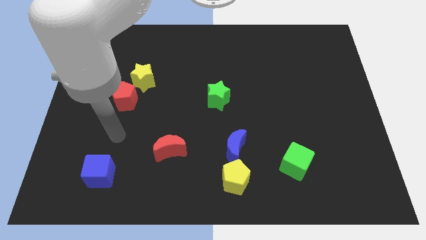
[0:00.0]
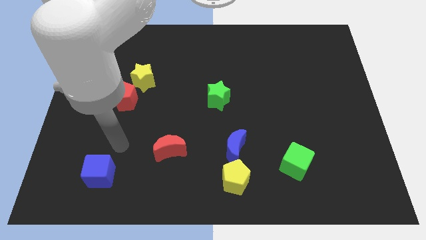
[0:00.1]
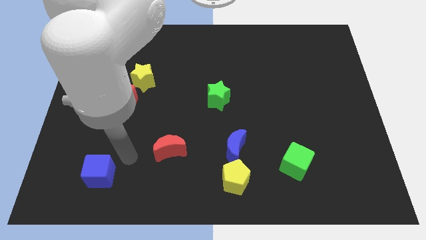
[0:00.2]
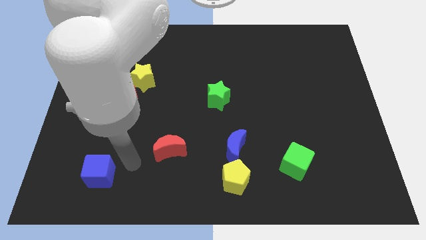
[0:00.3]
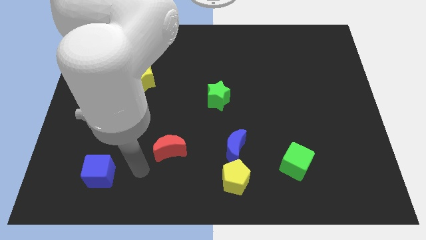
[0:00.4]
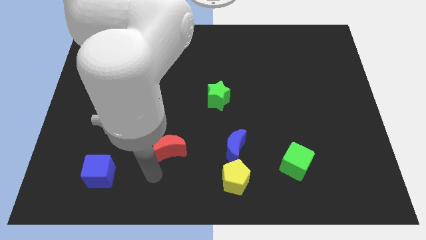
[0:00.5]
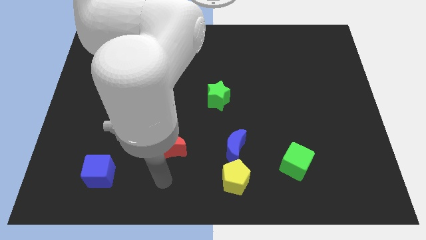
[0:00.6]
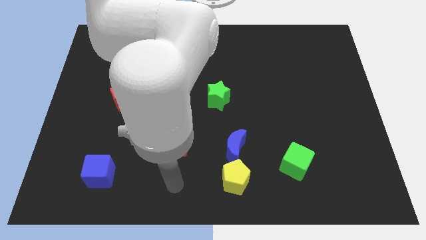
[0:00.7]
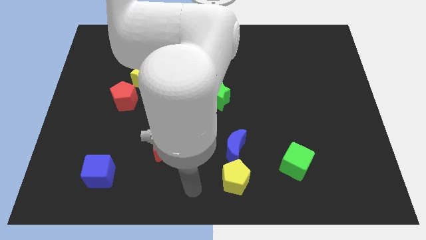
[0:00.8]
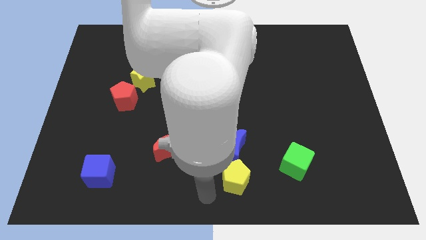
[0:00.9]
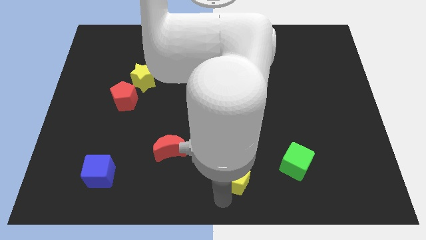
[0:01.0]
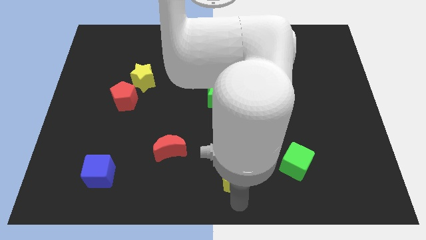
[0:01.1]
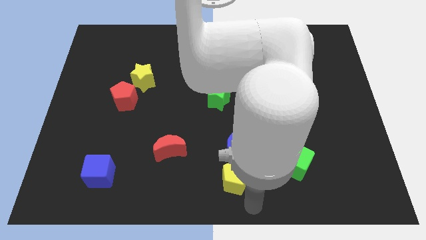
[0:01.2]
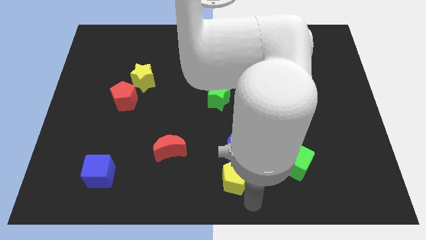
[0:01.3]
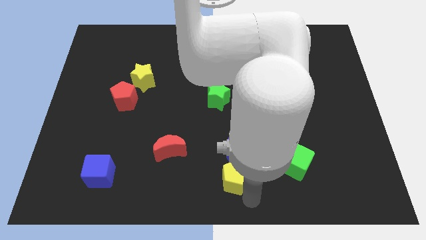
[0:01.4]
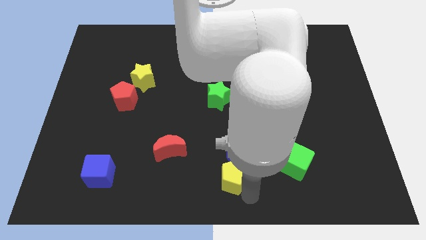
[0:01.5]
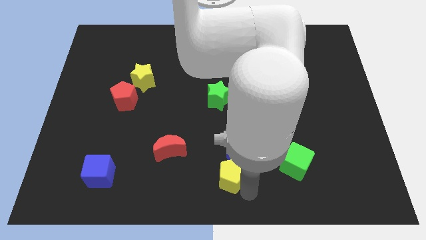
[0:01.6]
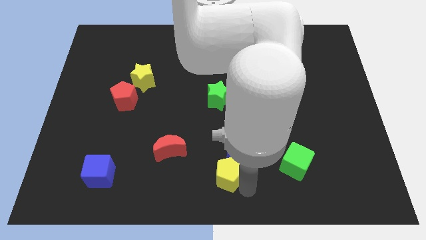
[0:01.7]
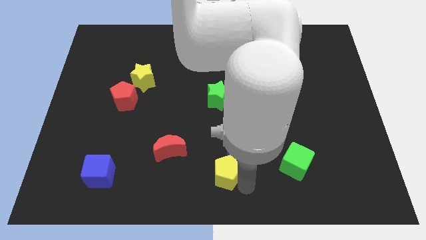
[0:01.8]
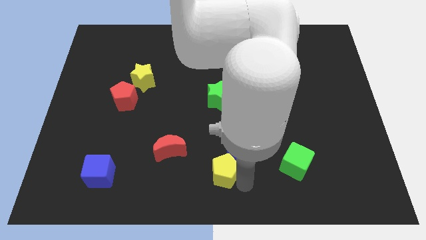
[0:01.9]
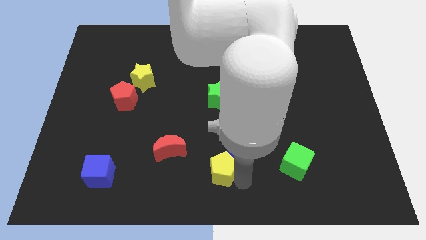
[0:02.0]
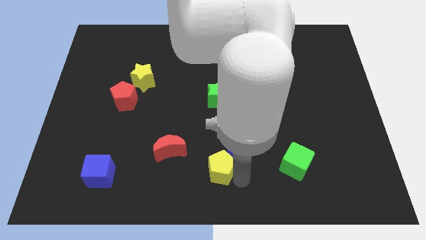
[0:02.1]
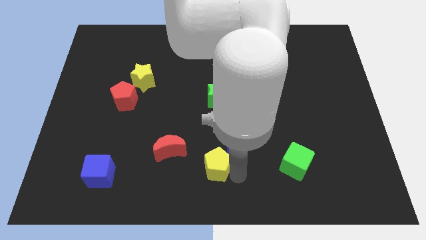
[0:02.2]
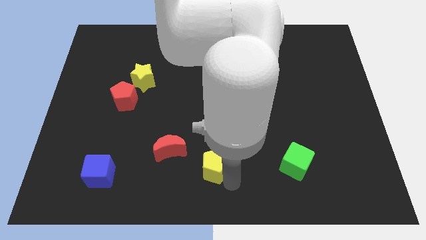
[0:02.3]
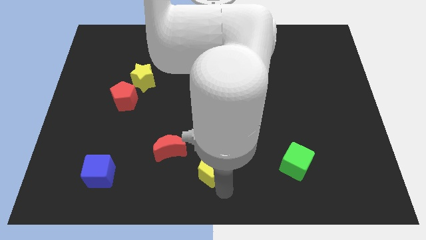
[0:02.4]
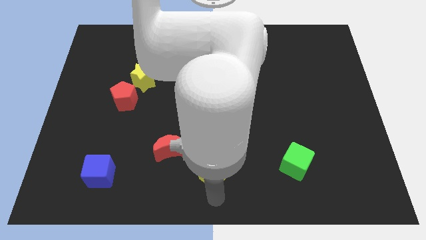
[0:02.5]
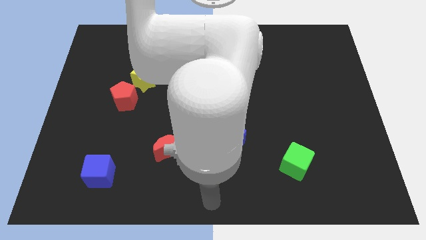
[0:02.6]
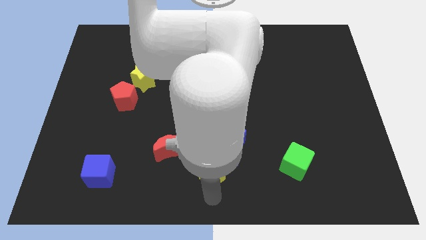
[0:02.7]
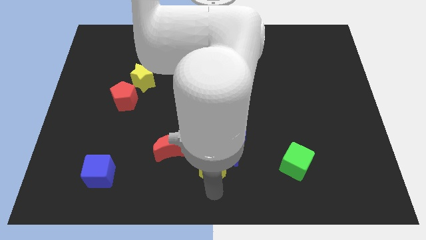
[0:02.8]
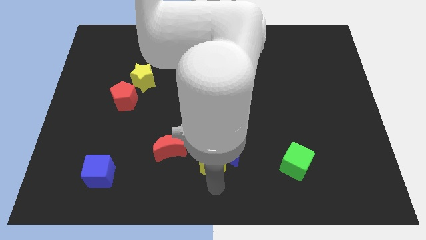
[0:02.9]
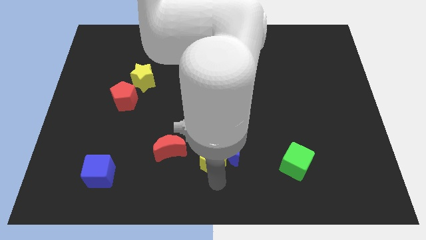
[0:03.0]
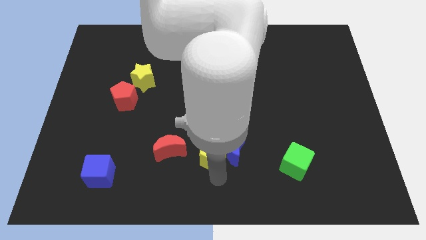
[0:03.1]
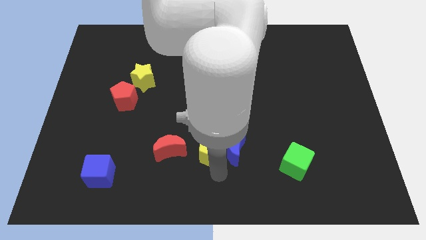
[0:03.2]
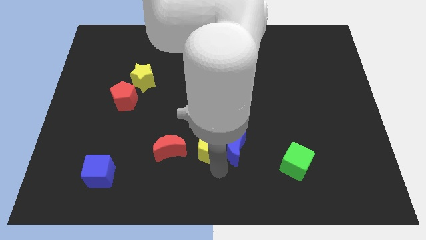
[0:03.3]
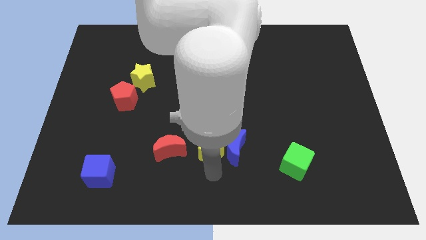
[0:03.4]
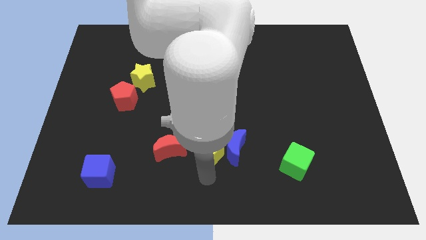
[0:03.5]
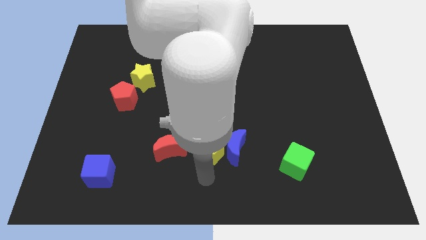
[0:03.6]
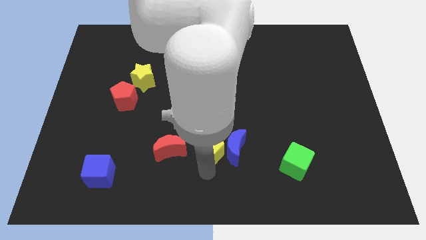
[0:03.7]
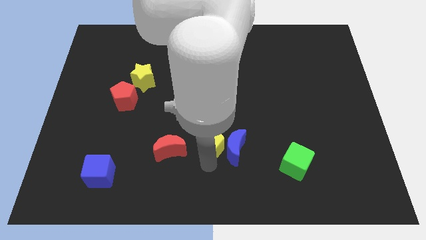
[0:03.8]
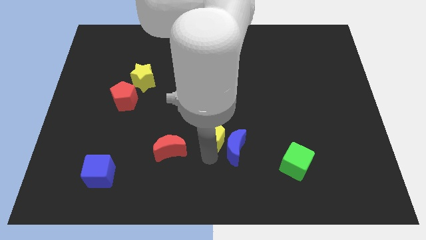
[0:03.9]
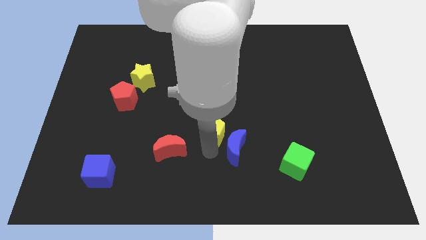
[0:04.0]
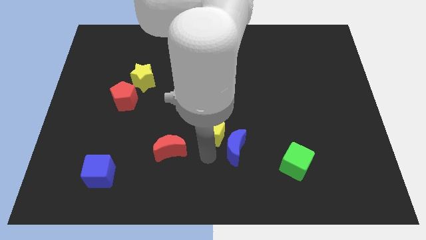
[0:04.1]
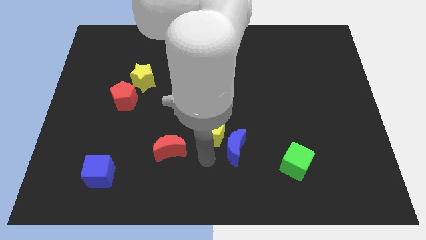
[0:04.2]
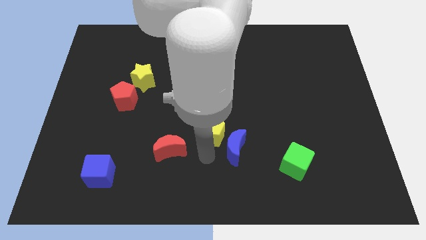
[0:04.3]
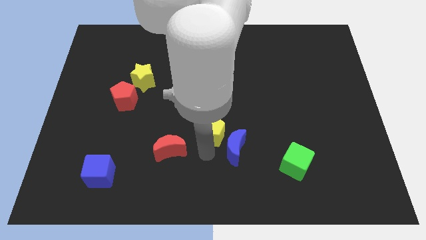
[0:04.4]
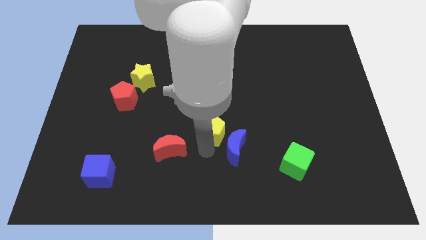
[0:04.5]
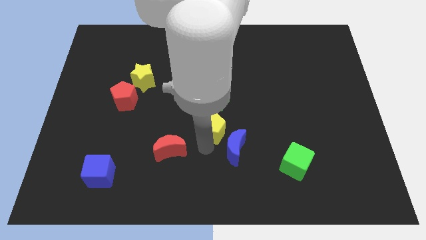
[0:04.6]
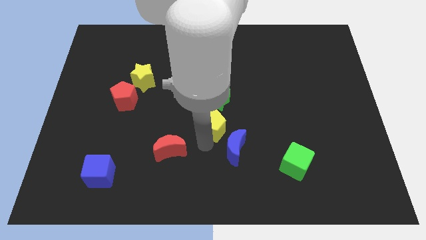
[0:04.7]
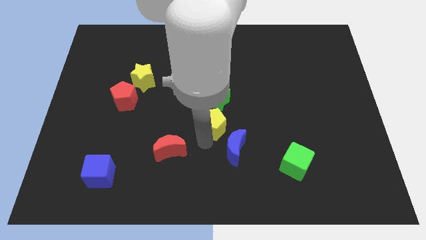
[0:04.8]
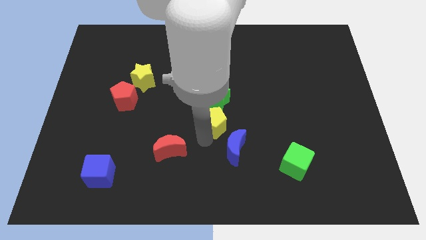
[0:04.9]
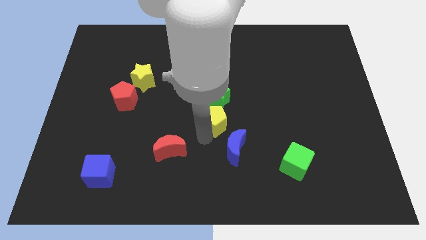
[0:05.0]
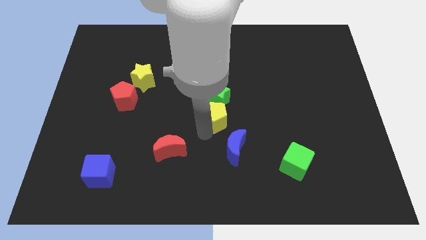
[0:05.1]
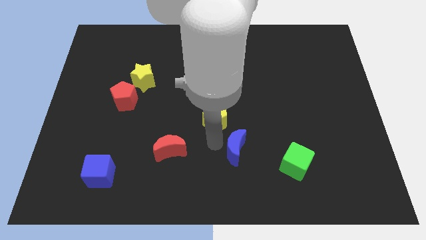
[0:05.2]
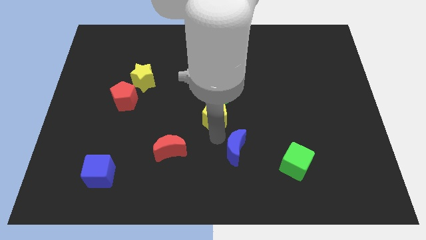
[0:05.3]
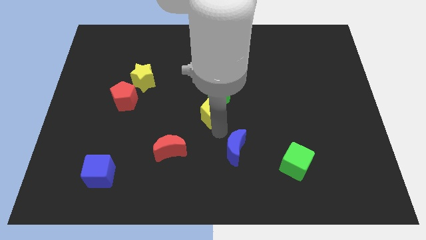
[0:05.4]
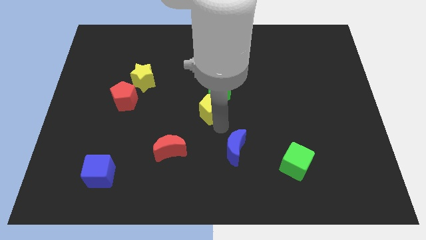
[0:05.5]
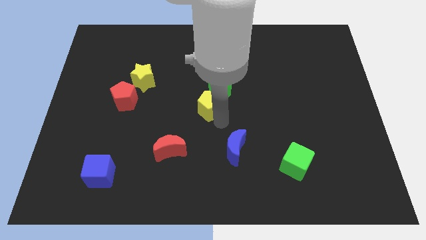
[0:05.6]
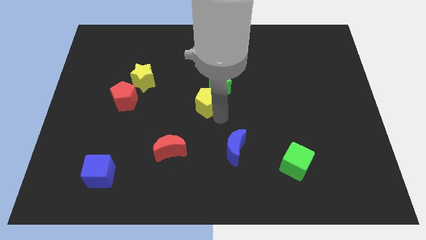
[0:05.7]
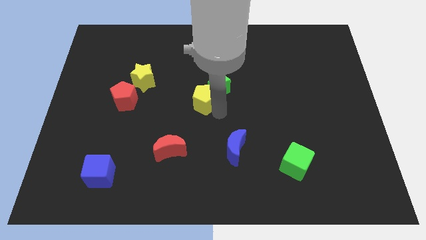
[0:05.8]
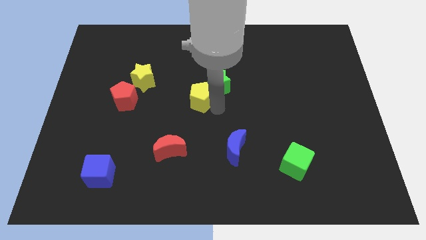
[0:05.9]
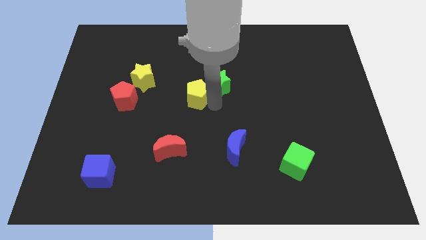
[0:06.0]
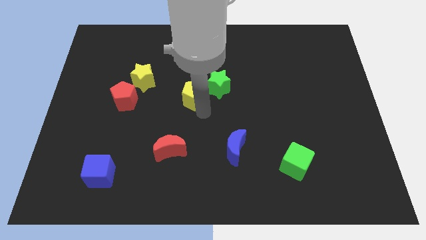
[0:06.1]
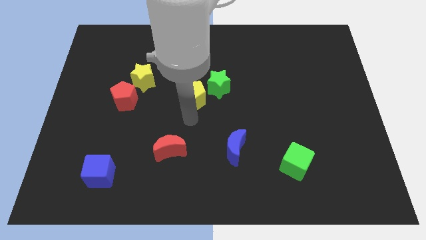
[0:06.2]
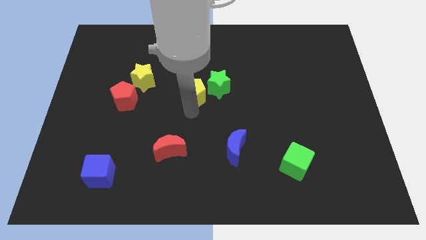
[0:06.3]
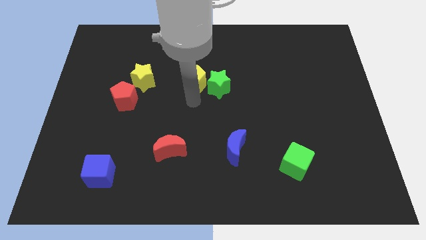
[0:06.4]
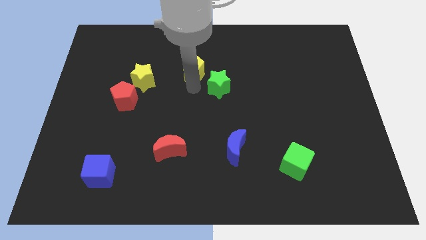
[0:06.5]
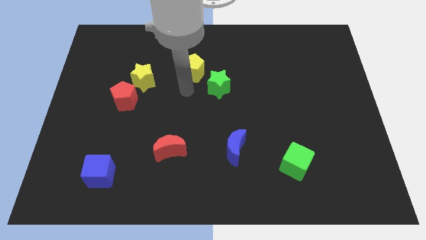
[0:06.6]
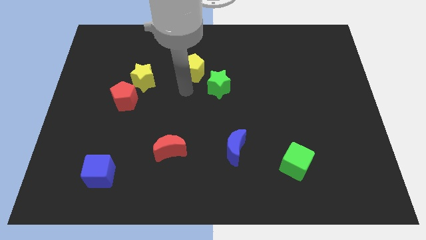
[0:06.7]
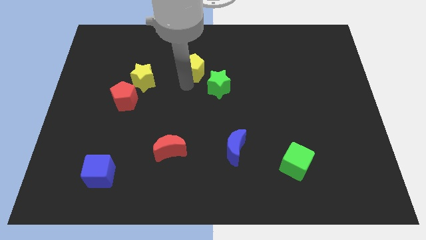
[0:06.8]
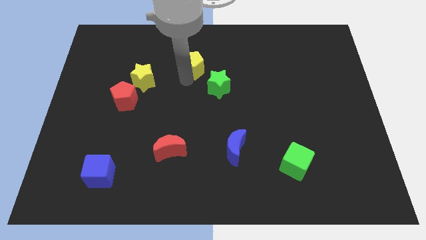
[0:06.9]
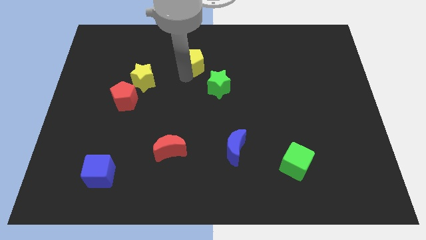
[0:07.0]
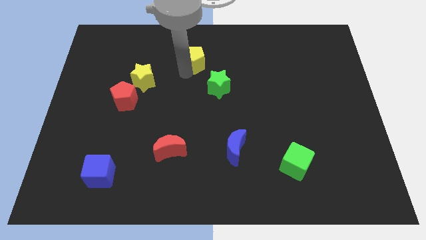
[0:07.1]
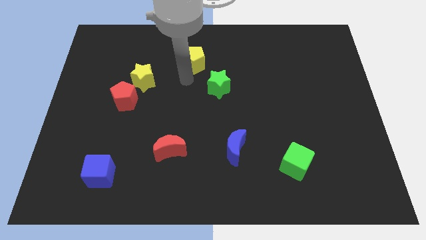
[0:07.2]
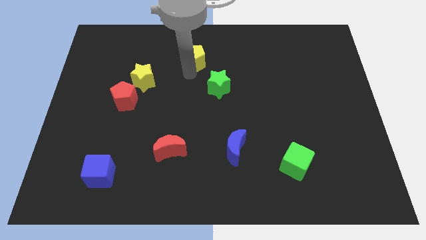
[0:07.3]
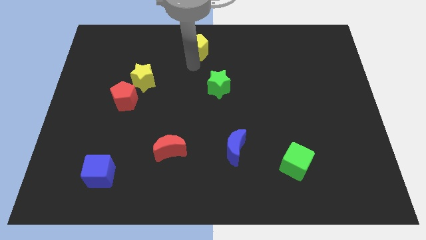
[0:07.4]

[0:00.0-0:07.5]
slide the yellow pentagon to the top
